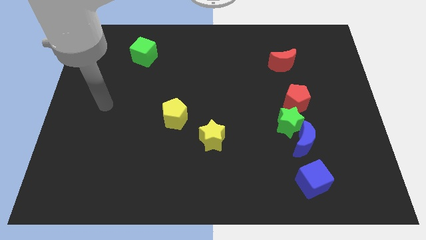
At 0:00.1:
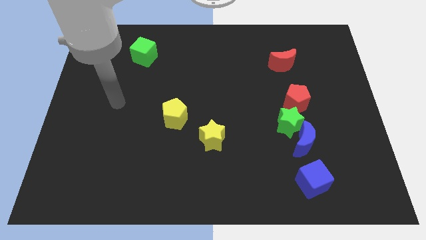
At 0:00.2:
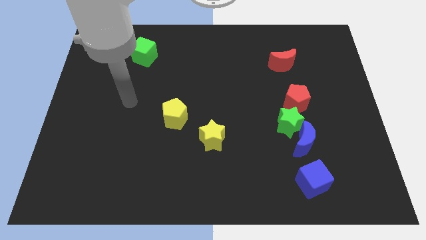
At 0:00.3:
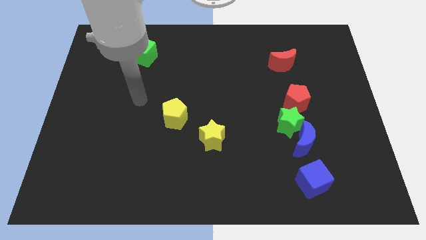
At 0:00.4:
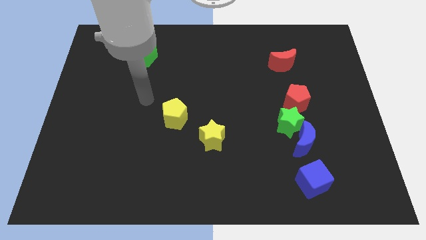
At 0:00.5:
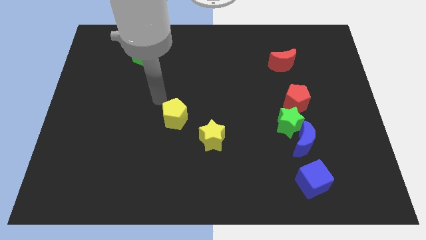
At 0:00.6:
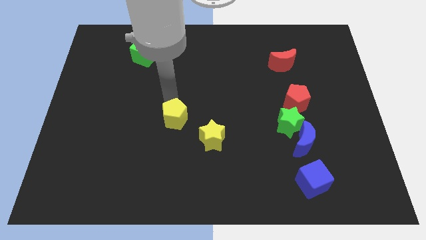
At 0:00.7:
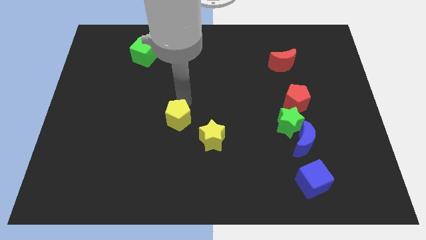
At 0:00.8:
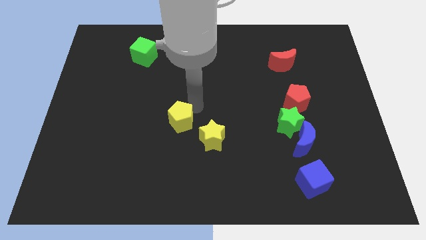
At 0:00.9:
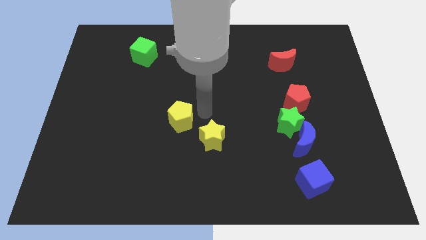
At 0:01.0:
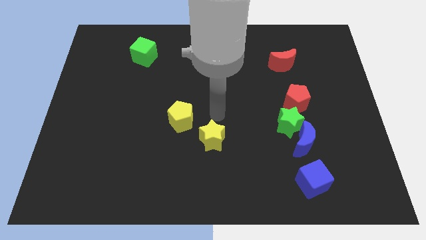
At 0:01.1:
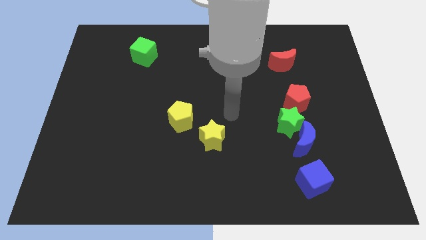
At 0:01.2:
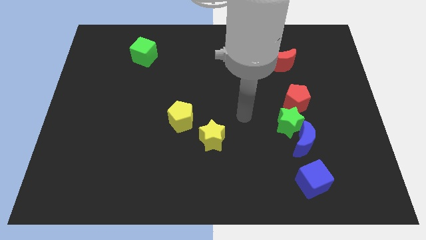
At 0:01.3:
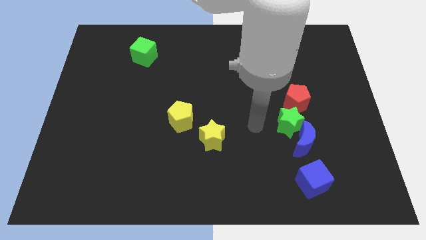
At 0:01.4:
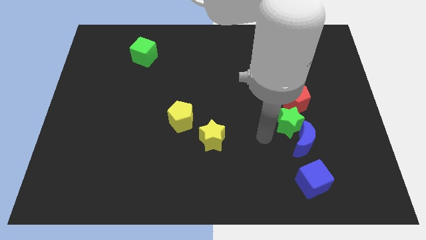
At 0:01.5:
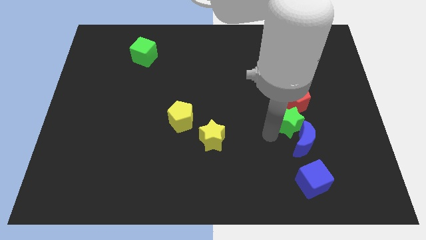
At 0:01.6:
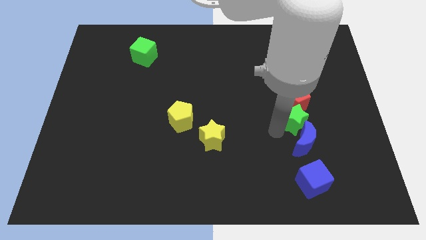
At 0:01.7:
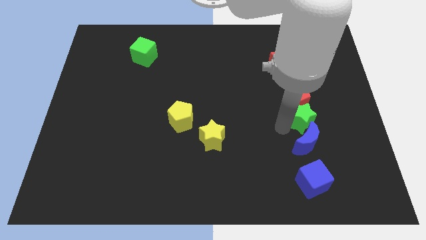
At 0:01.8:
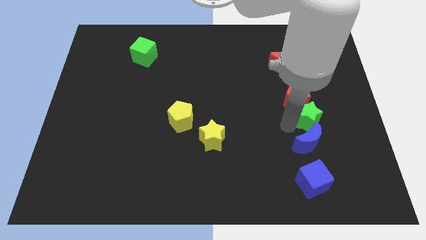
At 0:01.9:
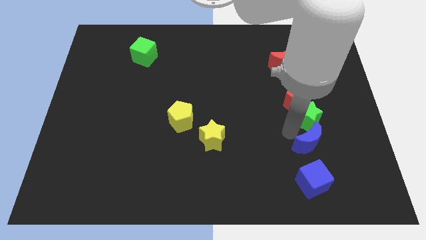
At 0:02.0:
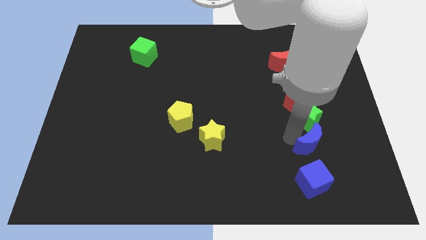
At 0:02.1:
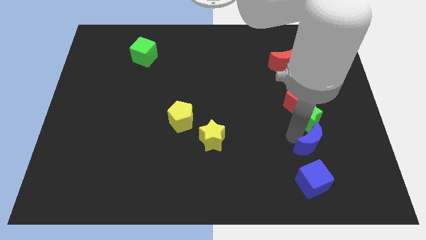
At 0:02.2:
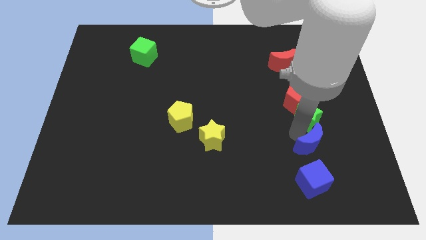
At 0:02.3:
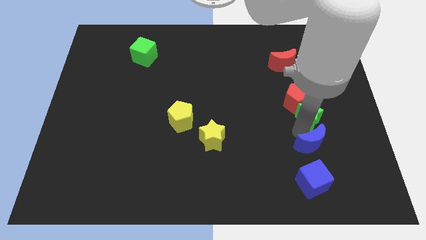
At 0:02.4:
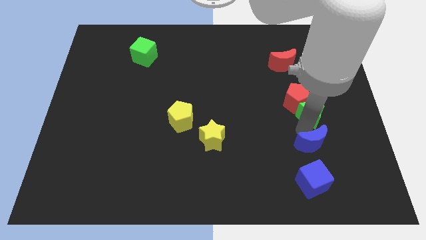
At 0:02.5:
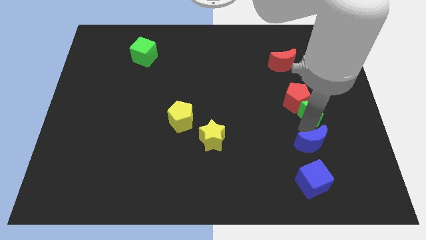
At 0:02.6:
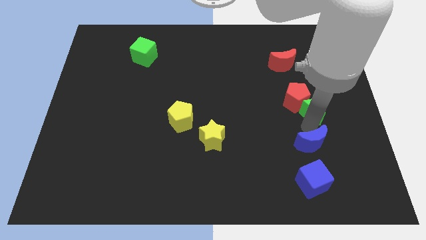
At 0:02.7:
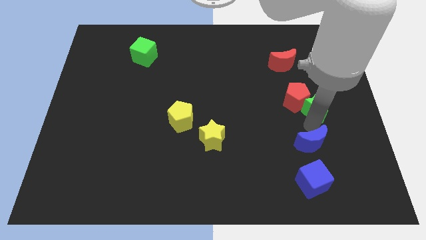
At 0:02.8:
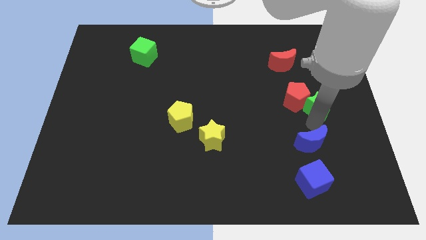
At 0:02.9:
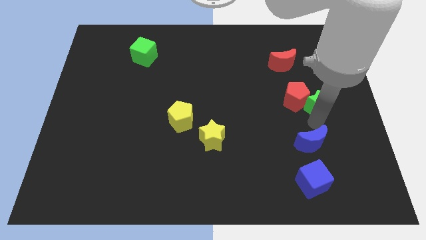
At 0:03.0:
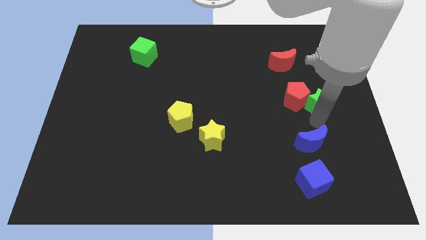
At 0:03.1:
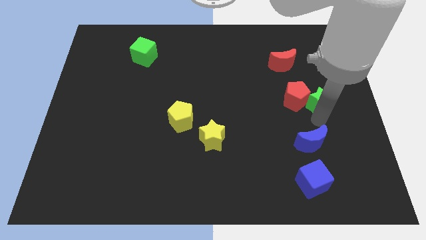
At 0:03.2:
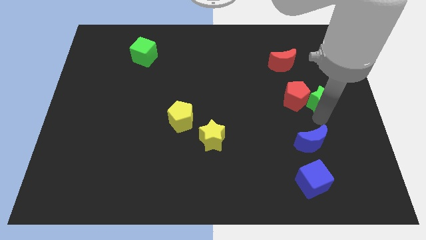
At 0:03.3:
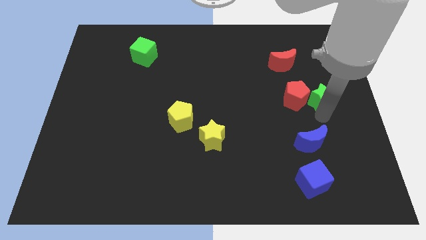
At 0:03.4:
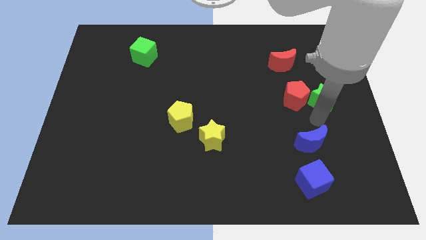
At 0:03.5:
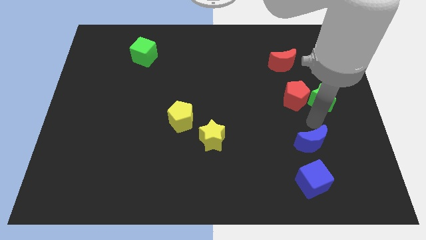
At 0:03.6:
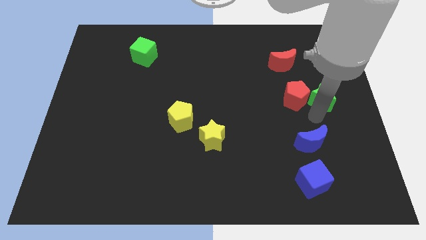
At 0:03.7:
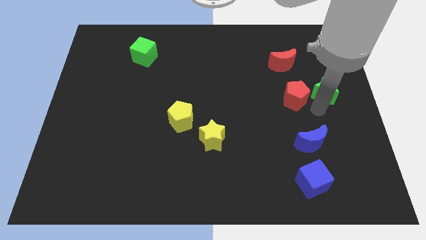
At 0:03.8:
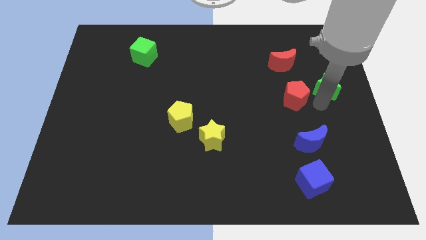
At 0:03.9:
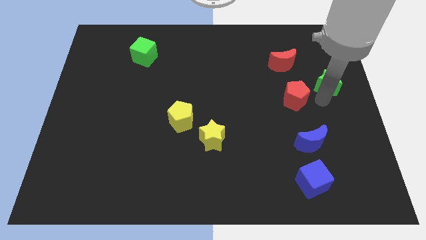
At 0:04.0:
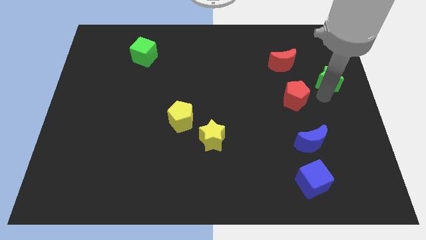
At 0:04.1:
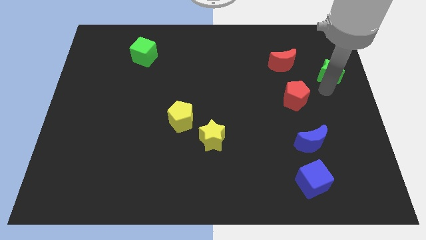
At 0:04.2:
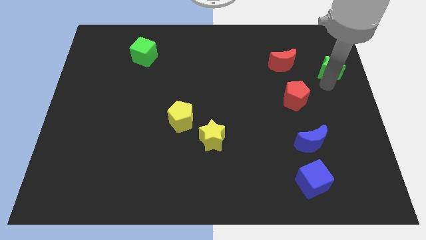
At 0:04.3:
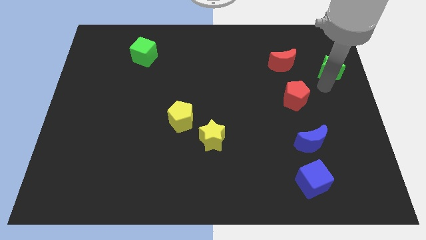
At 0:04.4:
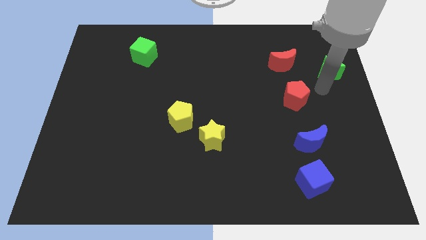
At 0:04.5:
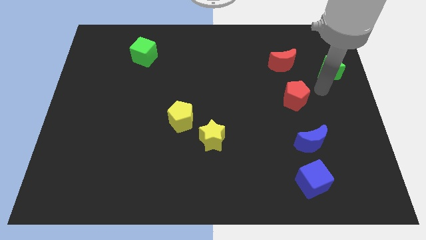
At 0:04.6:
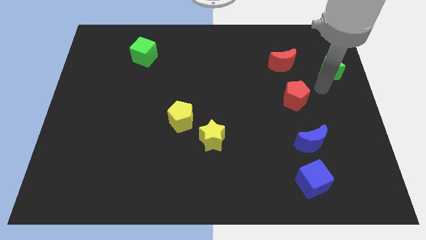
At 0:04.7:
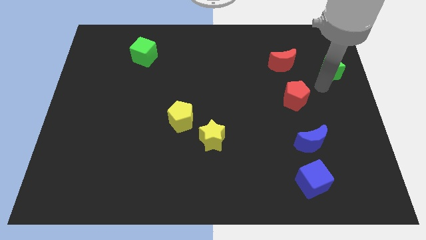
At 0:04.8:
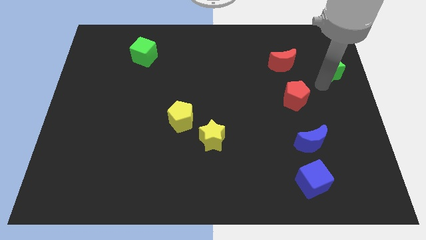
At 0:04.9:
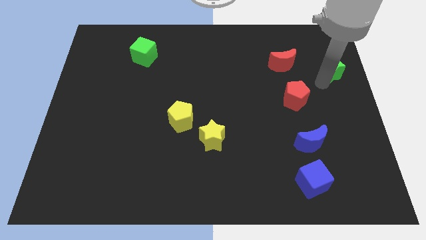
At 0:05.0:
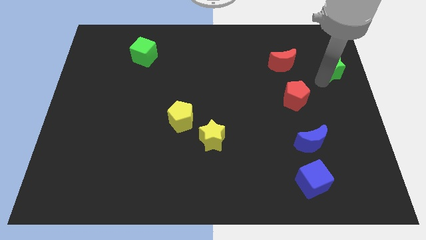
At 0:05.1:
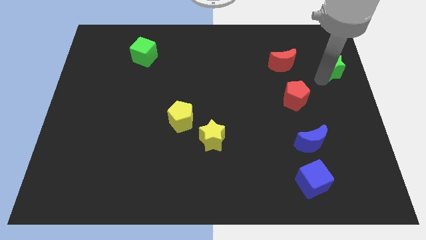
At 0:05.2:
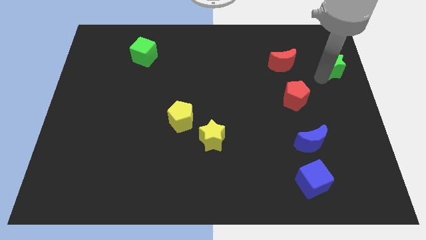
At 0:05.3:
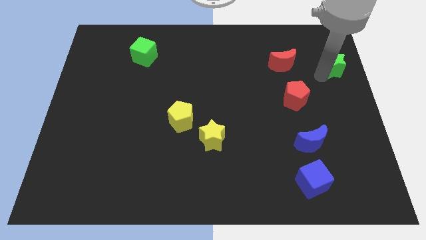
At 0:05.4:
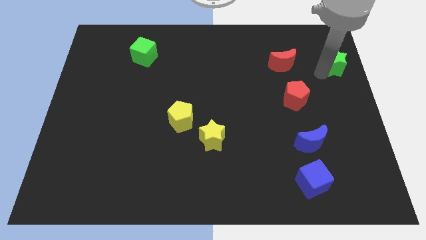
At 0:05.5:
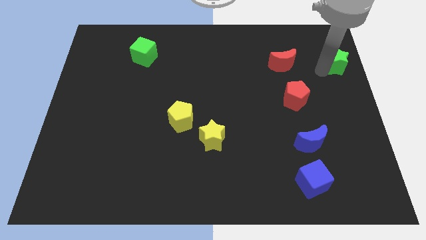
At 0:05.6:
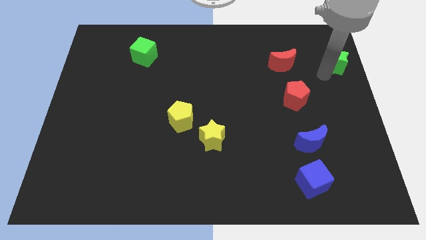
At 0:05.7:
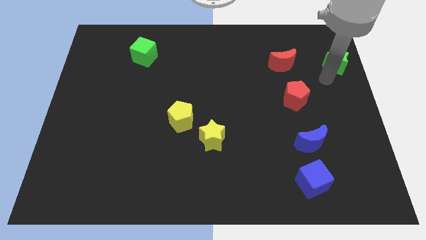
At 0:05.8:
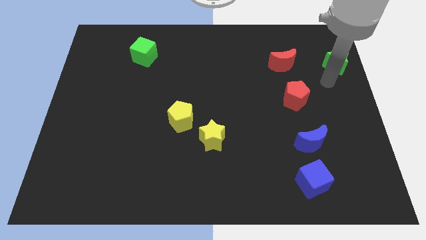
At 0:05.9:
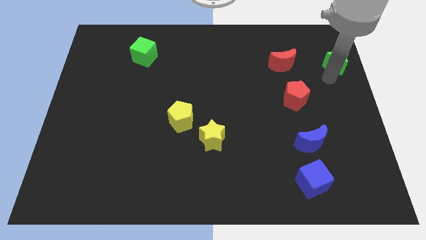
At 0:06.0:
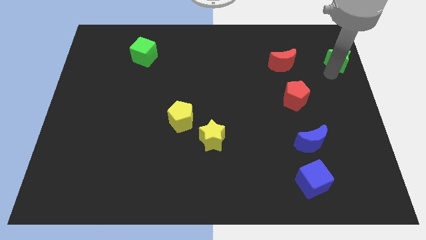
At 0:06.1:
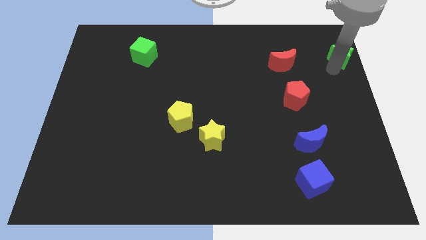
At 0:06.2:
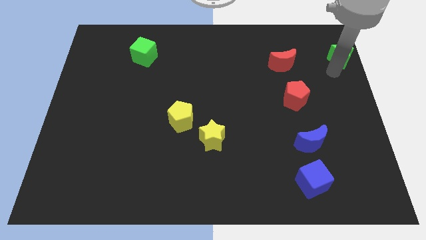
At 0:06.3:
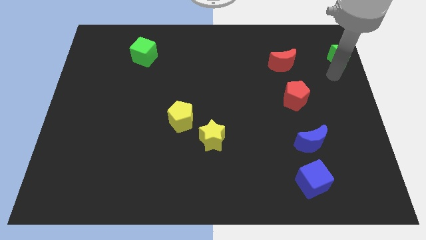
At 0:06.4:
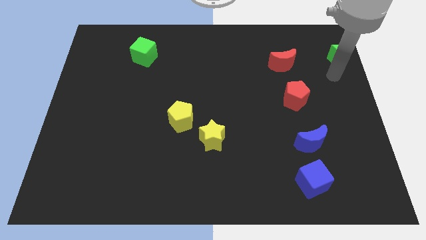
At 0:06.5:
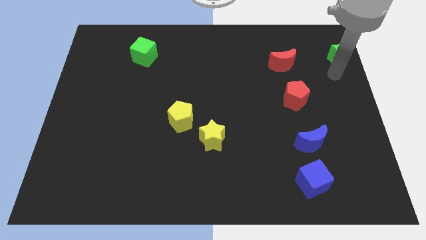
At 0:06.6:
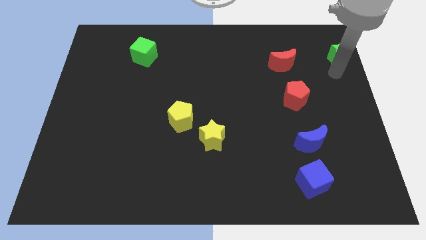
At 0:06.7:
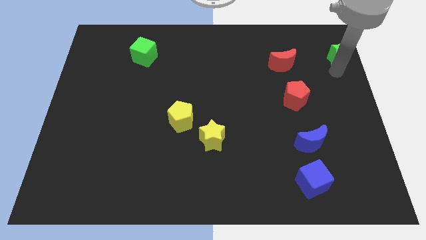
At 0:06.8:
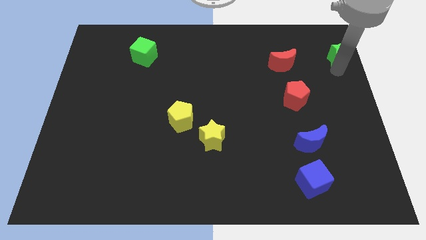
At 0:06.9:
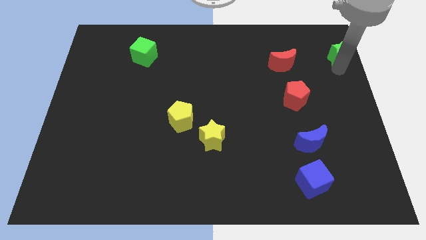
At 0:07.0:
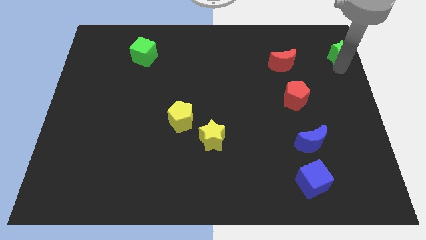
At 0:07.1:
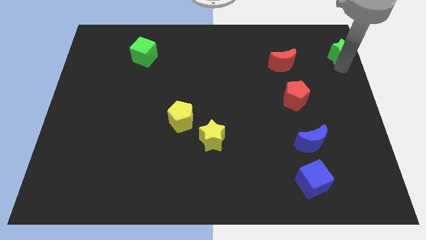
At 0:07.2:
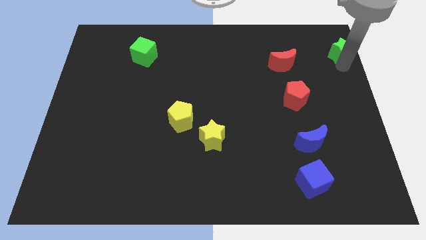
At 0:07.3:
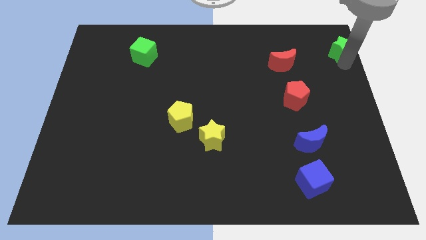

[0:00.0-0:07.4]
move the green star to the top right corner
